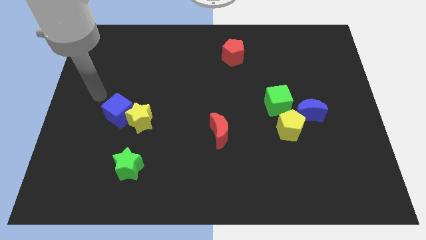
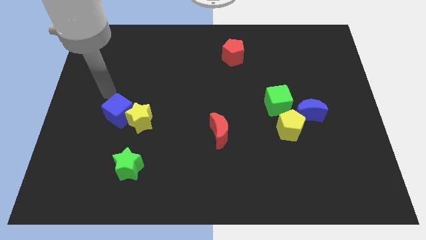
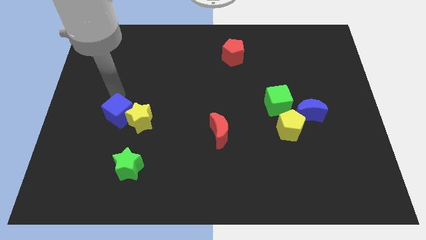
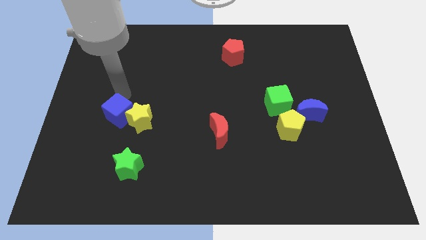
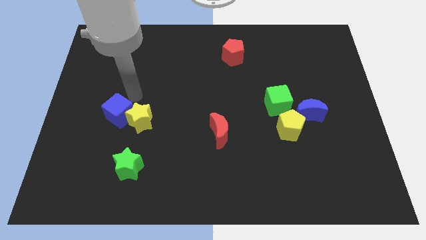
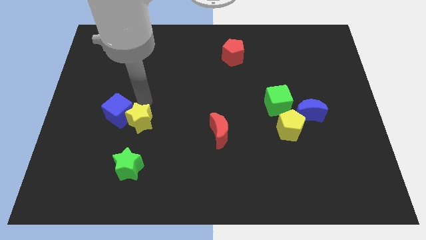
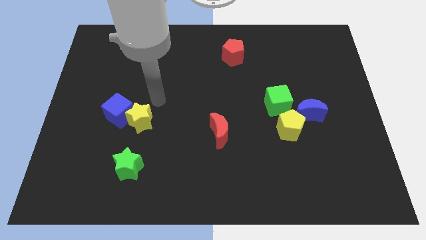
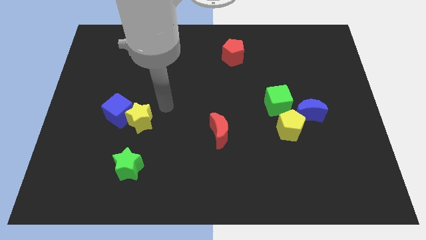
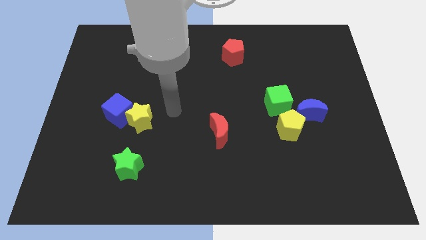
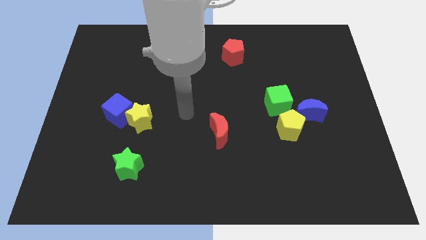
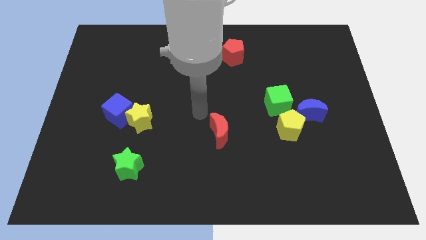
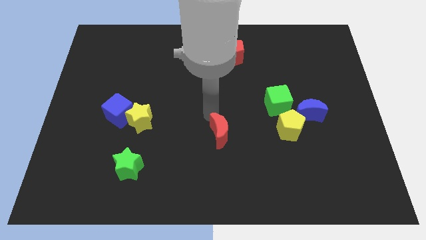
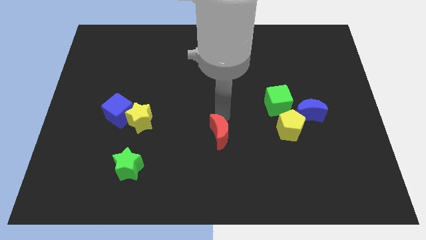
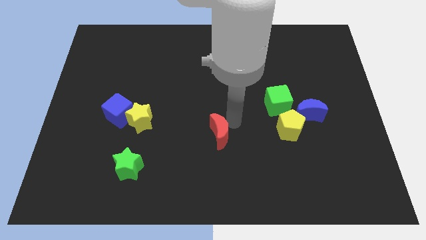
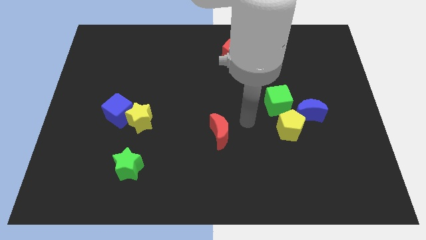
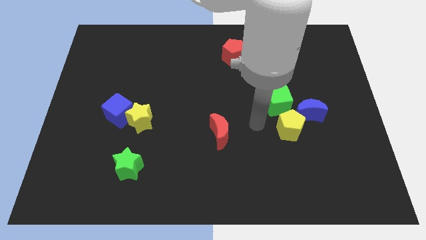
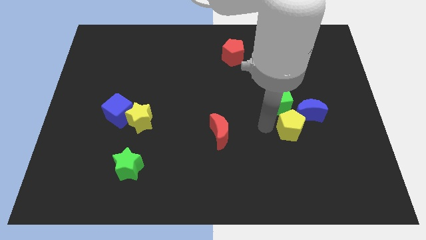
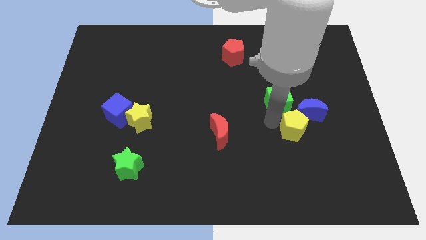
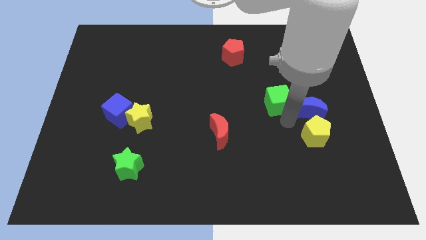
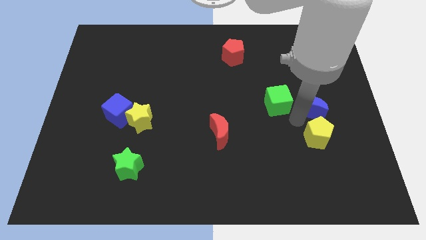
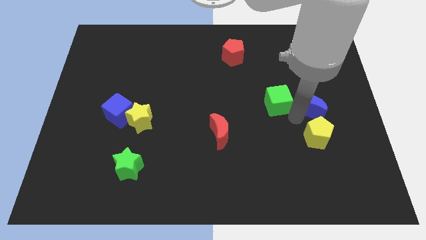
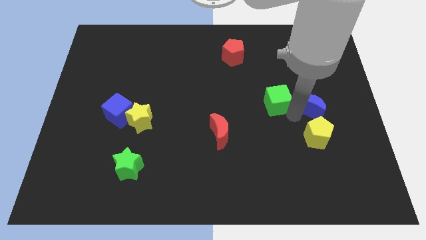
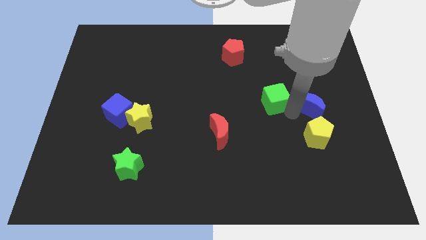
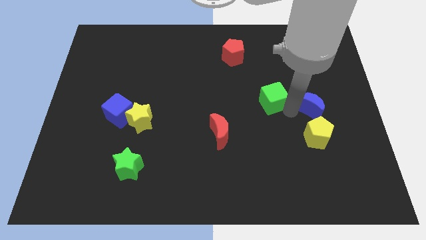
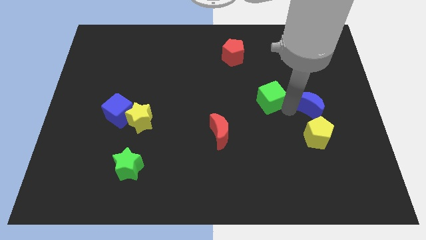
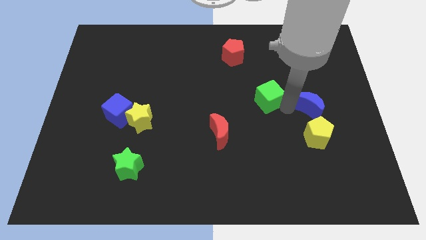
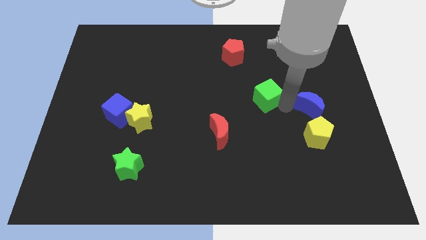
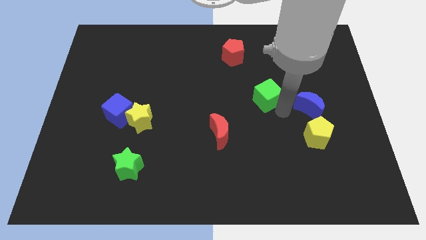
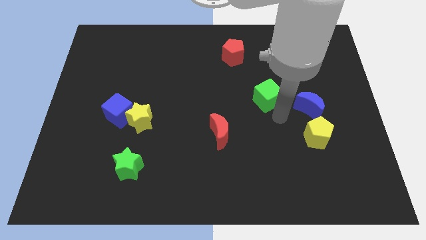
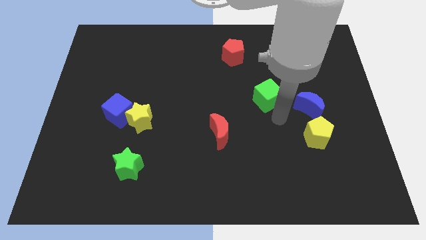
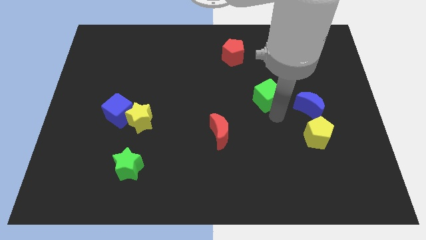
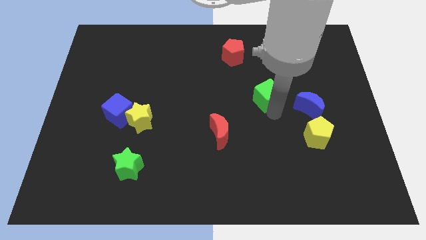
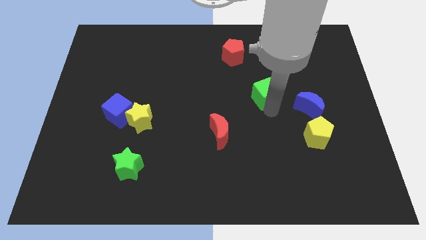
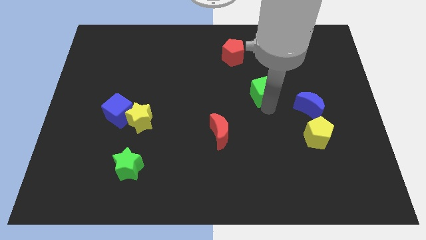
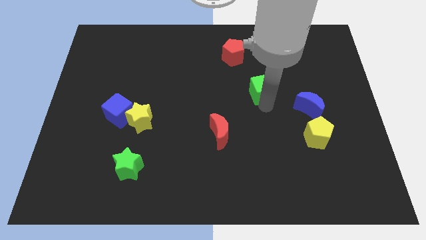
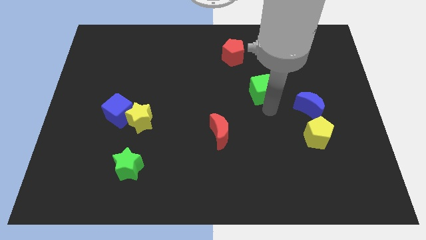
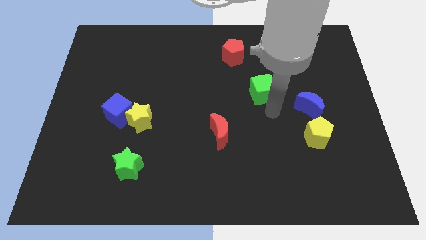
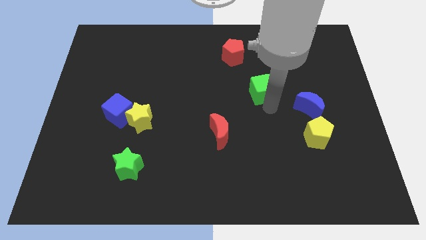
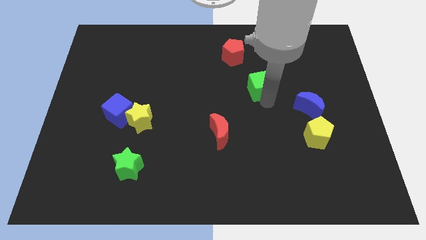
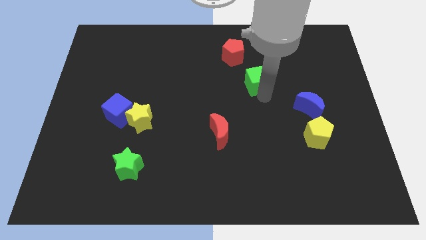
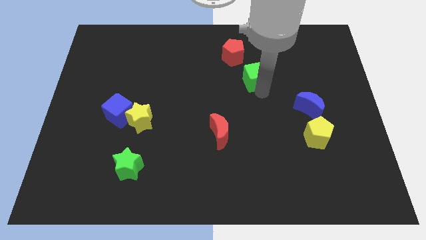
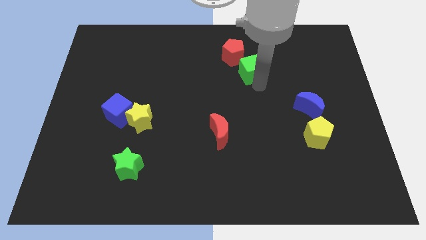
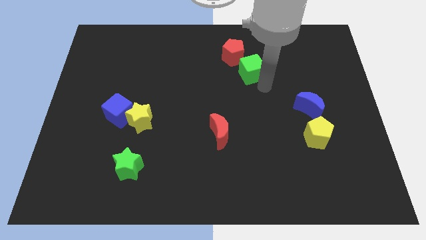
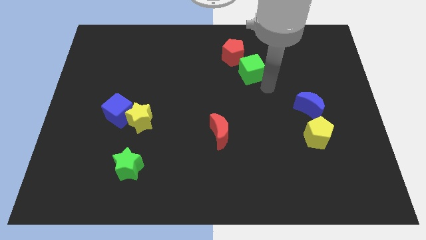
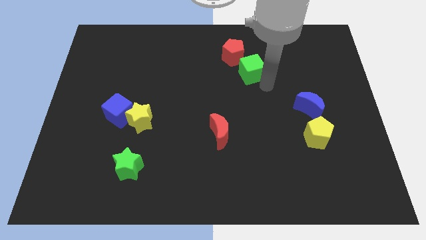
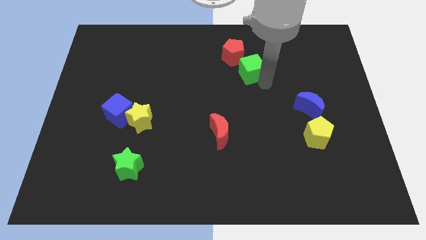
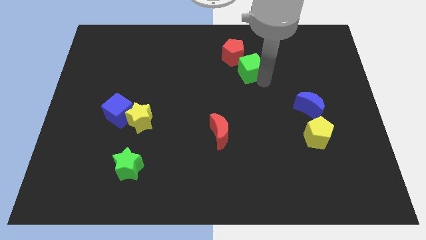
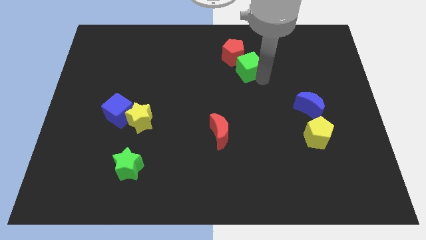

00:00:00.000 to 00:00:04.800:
move the green cube towards the red pentagon

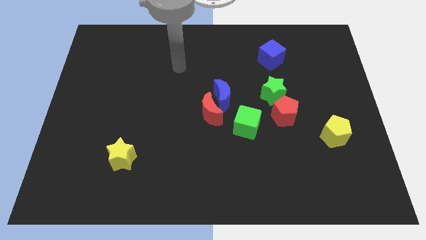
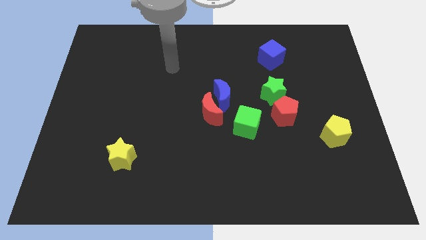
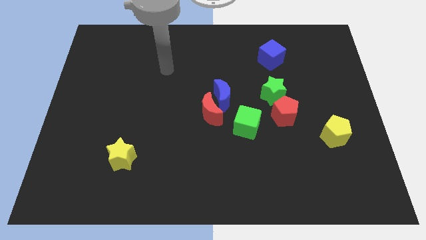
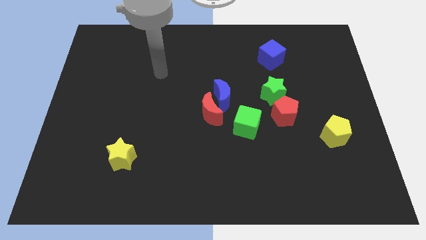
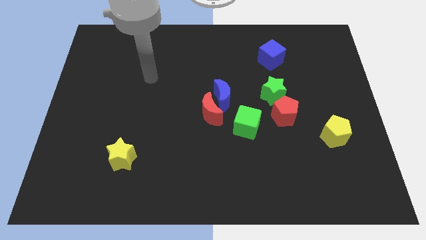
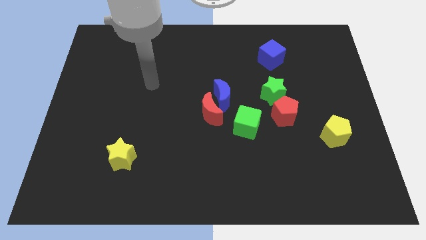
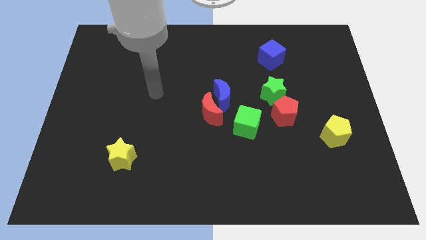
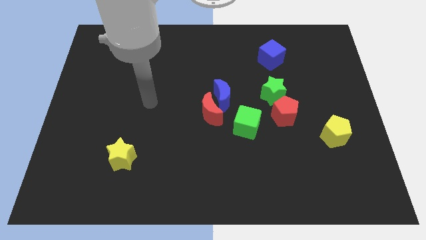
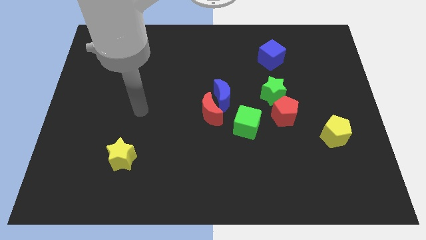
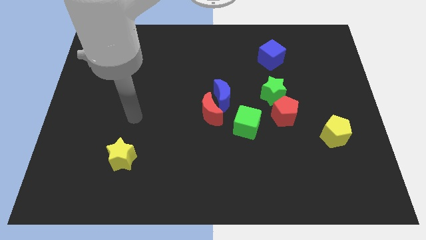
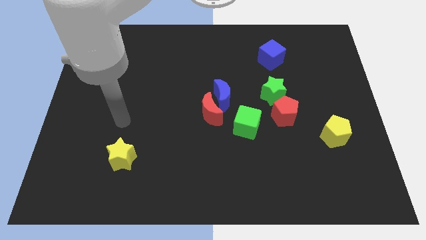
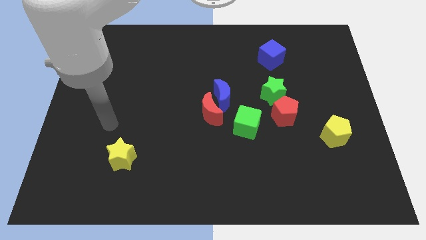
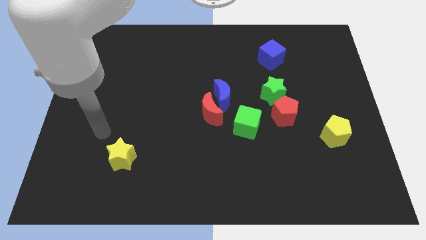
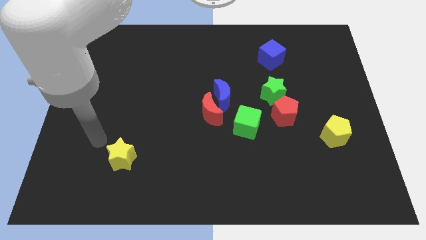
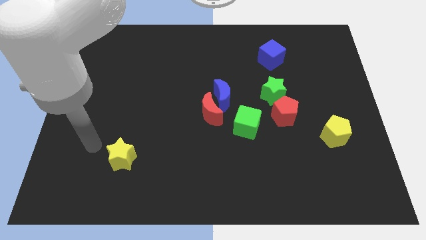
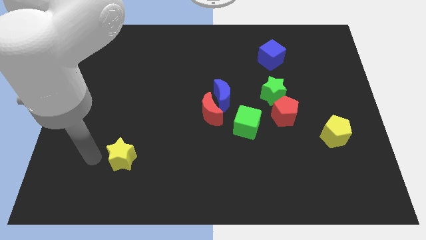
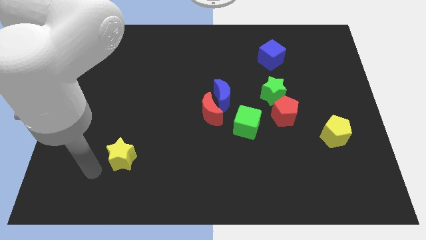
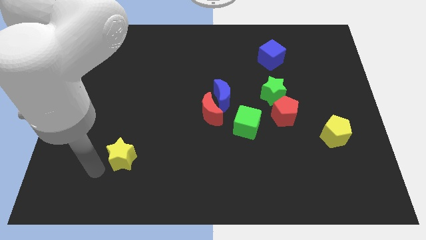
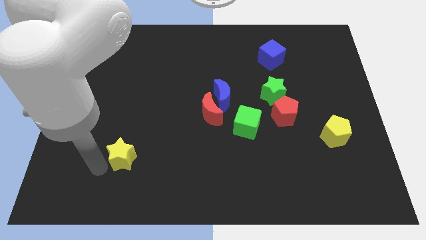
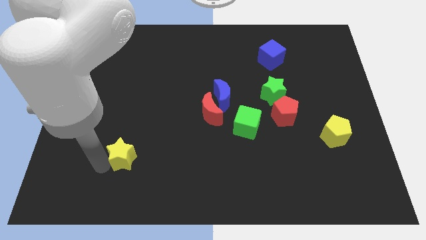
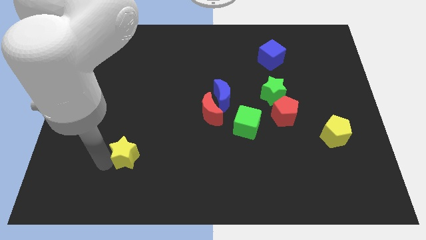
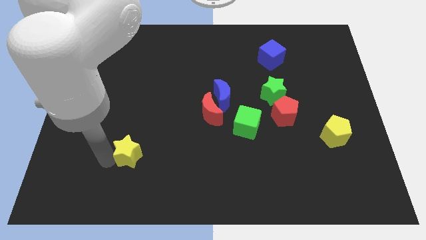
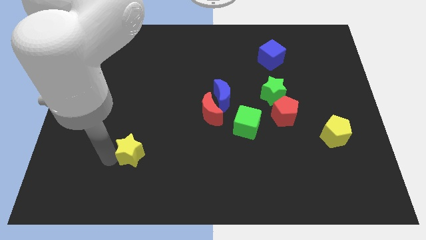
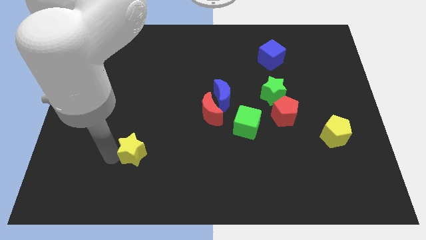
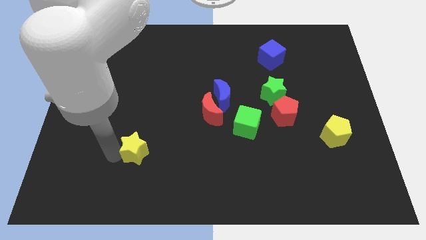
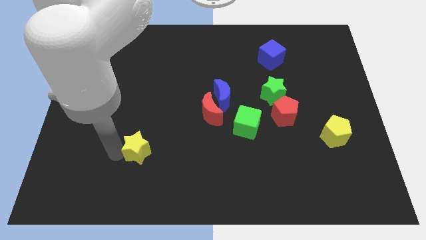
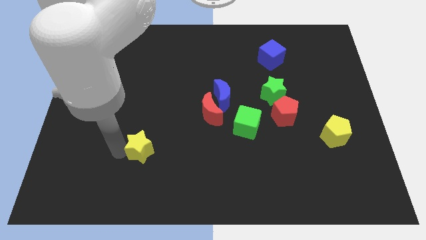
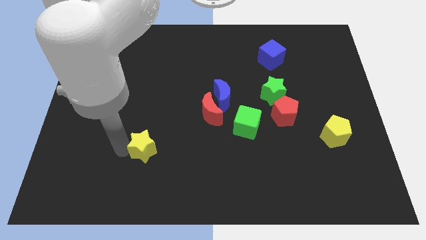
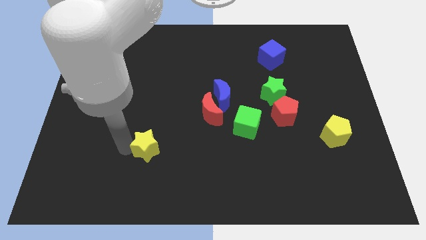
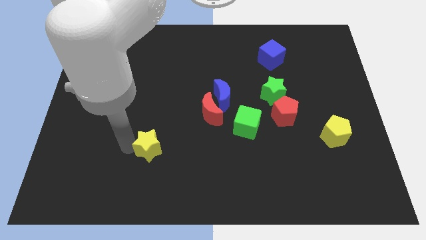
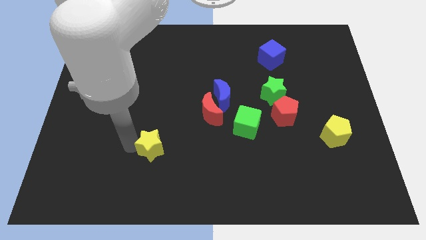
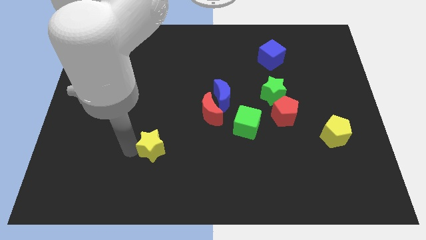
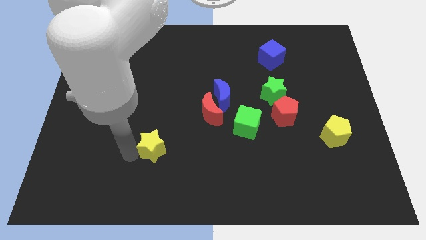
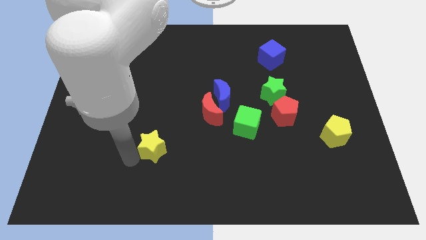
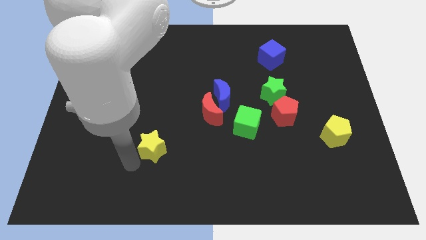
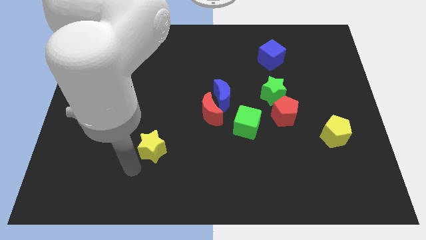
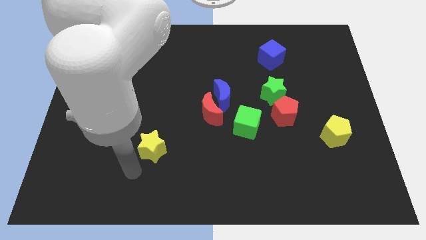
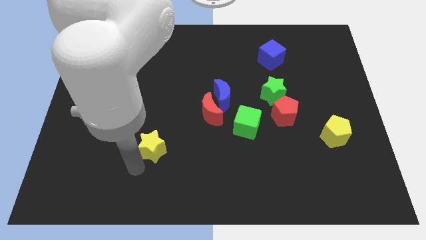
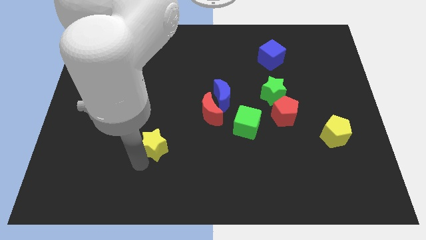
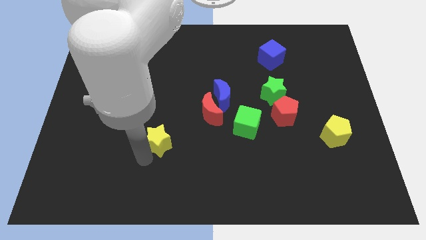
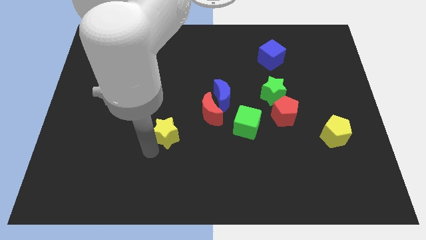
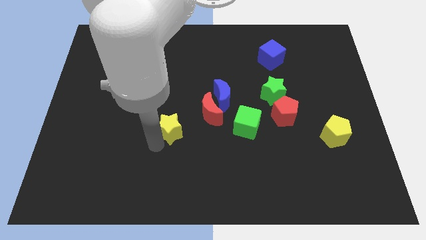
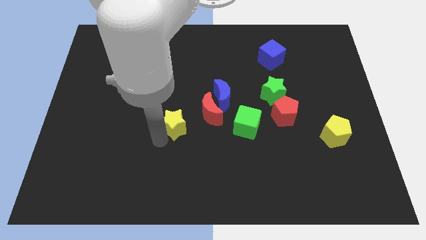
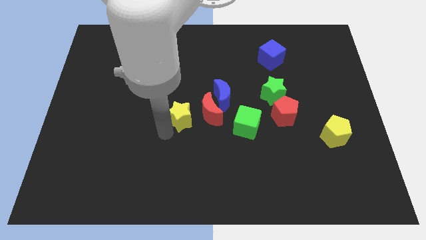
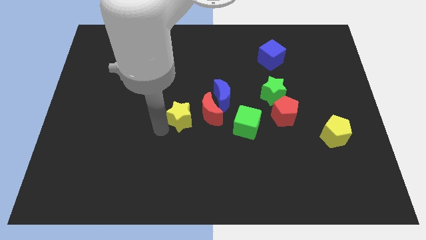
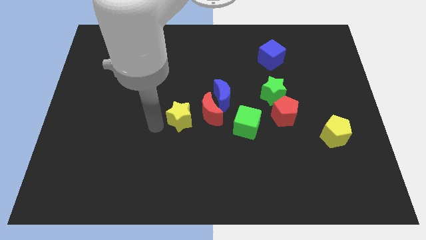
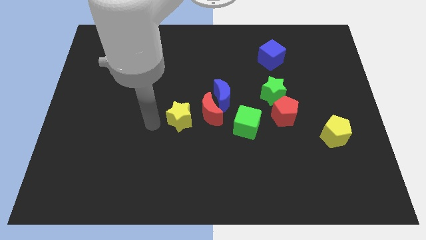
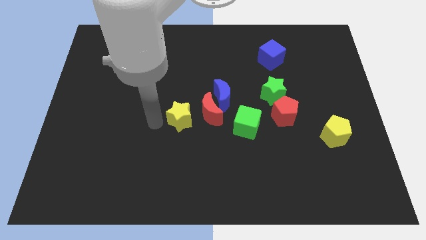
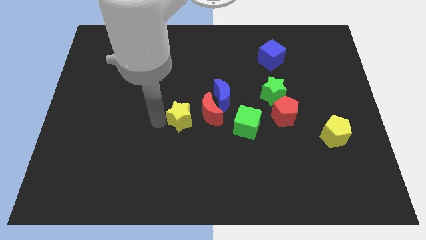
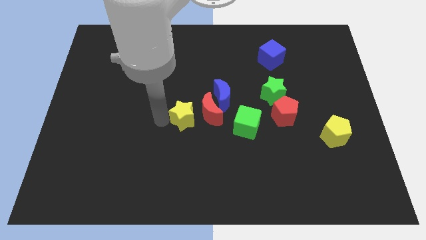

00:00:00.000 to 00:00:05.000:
slide the yellow star next to the red moon
